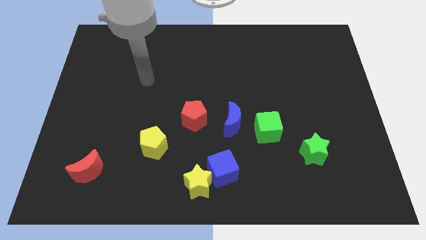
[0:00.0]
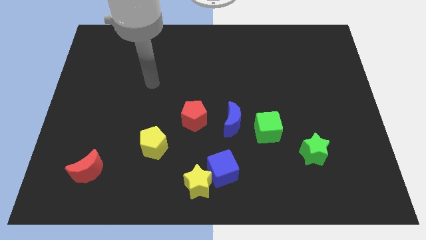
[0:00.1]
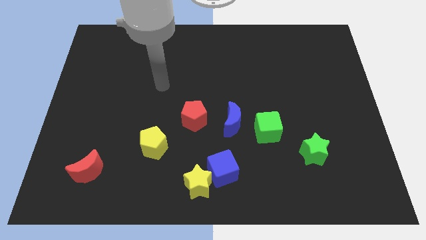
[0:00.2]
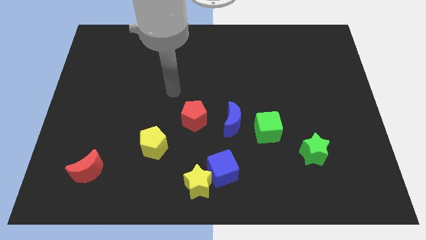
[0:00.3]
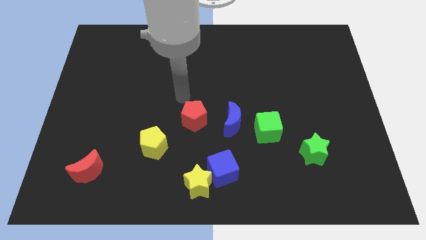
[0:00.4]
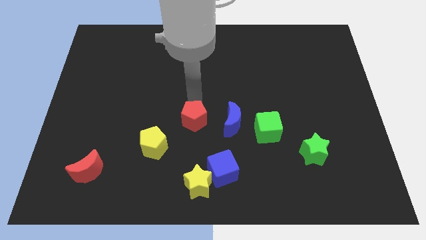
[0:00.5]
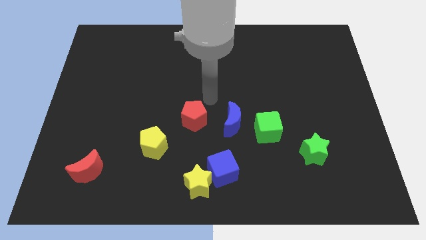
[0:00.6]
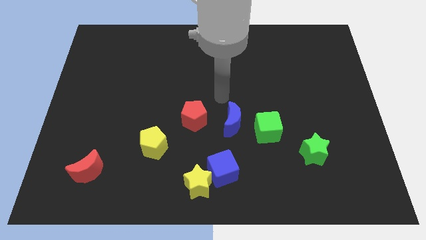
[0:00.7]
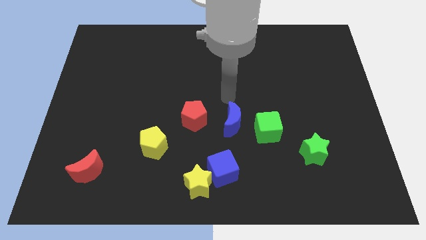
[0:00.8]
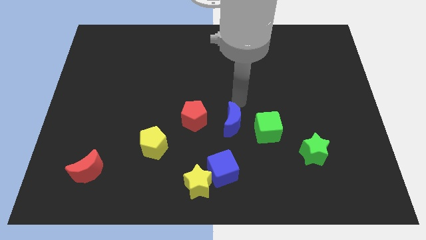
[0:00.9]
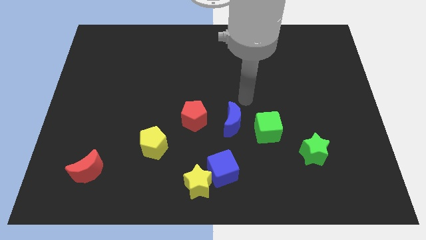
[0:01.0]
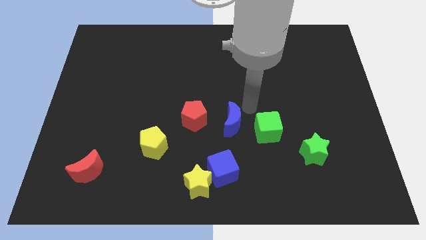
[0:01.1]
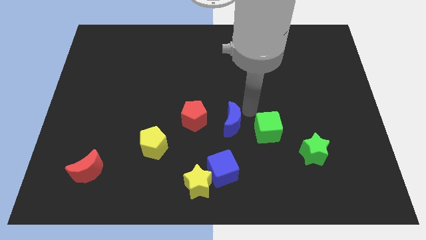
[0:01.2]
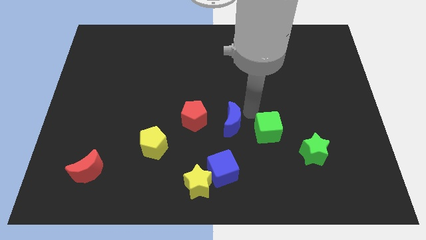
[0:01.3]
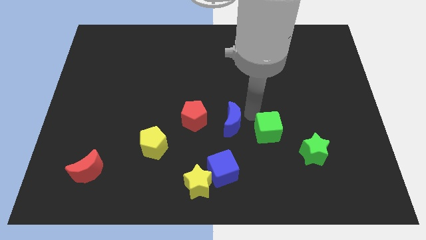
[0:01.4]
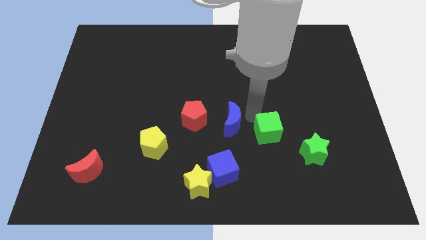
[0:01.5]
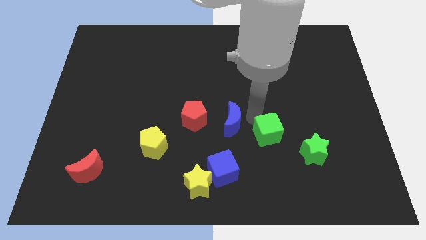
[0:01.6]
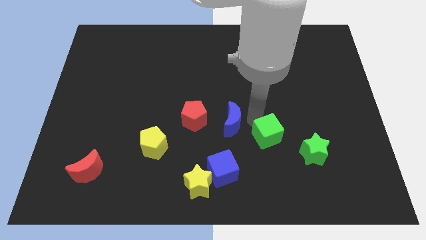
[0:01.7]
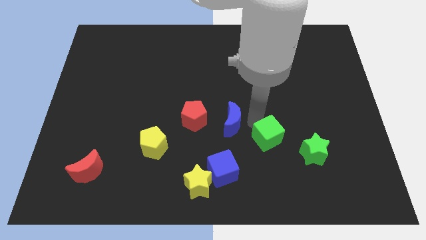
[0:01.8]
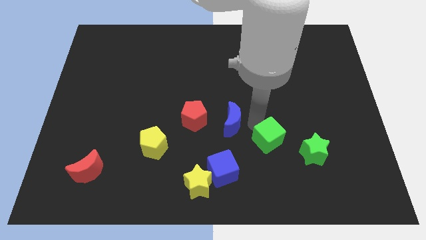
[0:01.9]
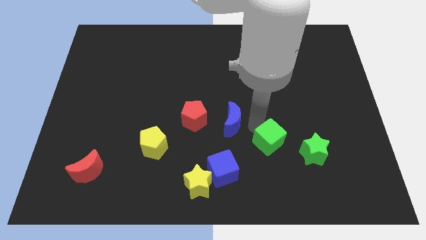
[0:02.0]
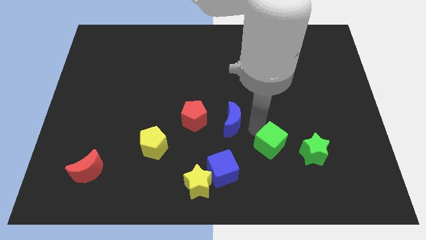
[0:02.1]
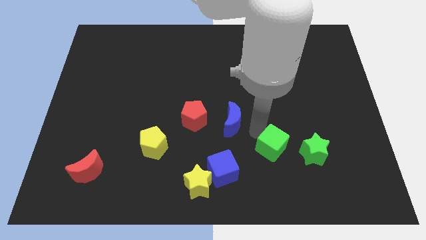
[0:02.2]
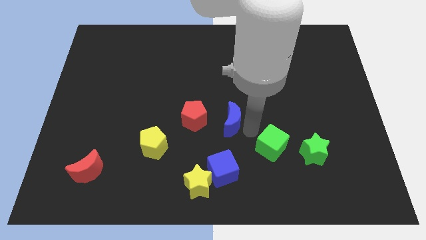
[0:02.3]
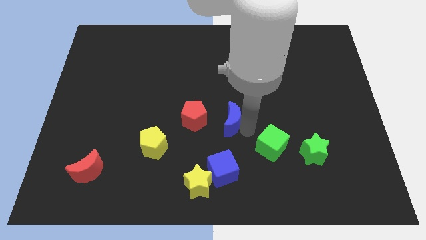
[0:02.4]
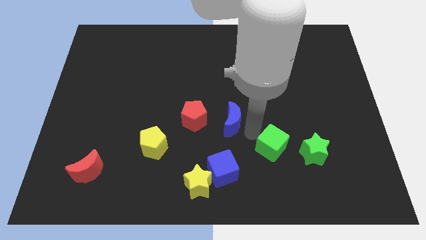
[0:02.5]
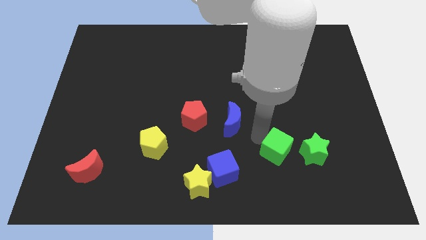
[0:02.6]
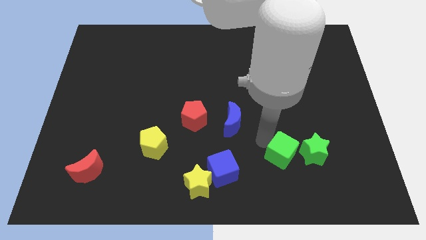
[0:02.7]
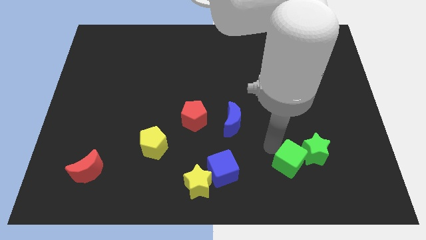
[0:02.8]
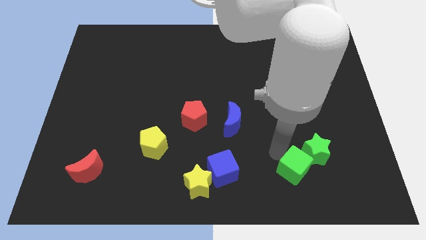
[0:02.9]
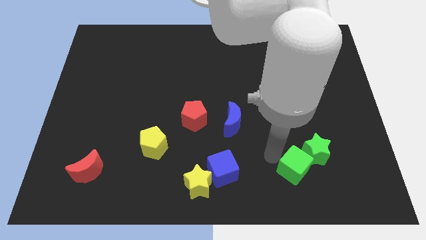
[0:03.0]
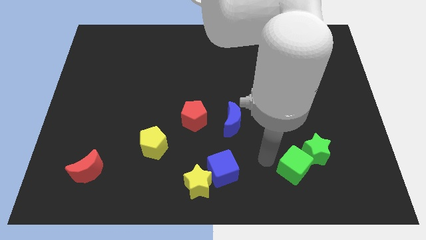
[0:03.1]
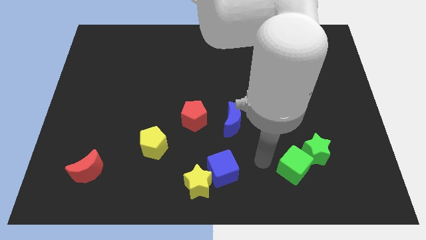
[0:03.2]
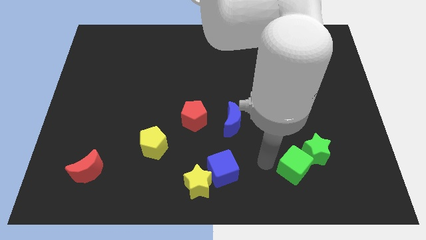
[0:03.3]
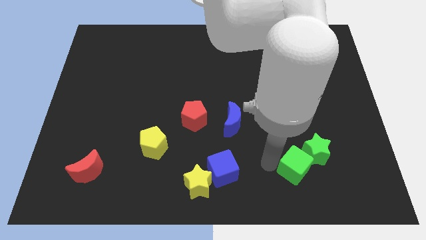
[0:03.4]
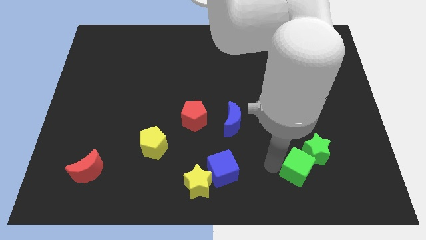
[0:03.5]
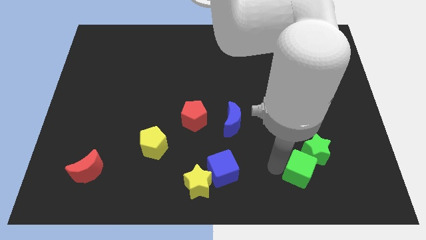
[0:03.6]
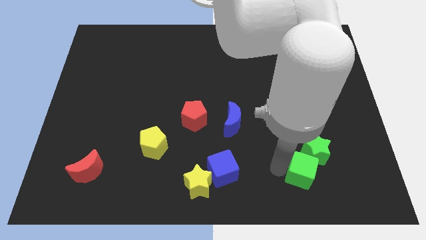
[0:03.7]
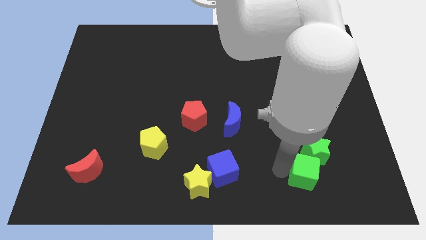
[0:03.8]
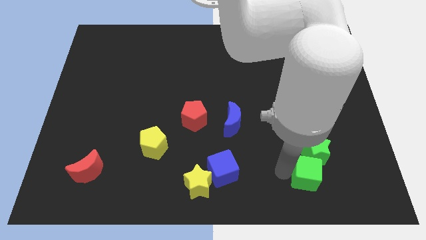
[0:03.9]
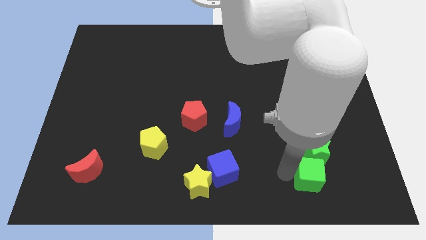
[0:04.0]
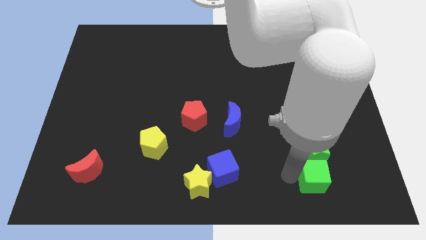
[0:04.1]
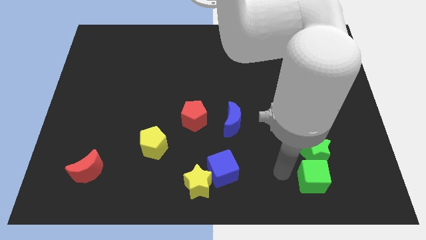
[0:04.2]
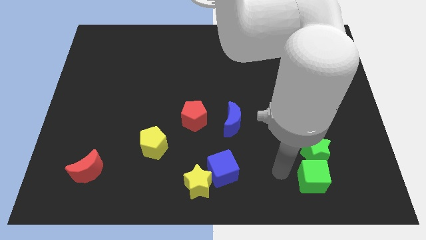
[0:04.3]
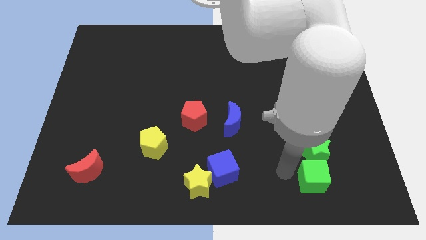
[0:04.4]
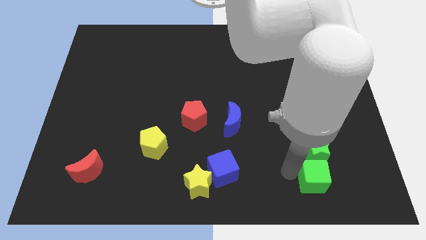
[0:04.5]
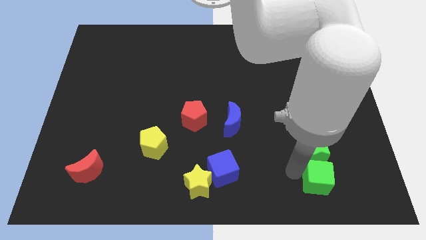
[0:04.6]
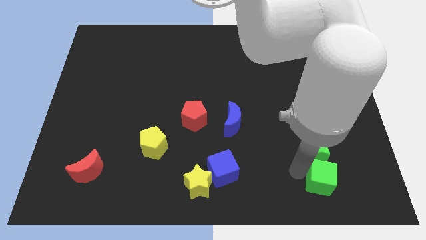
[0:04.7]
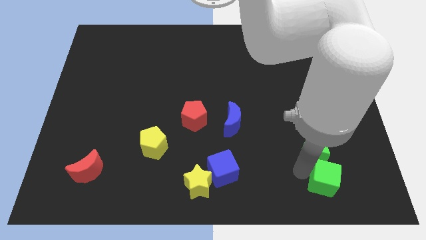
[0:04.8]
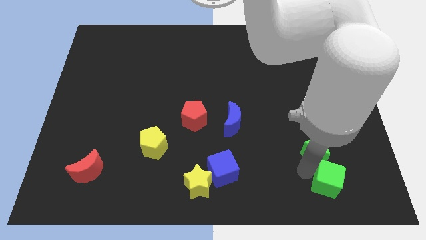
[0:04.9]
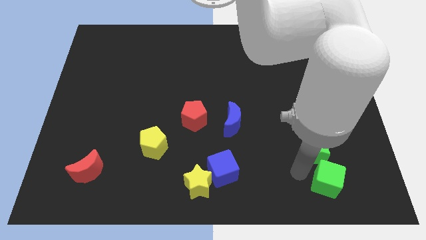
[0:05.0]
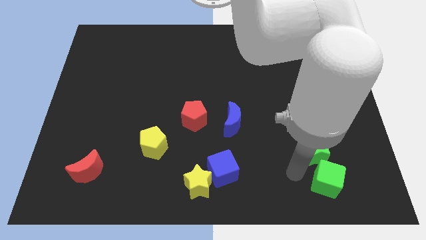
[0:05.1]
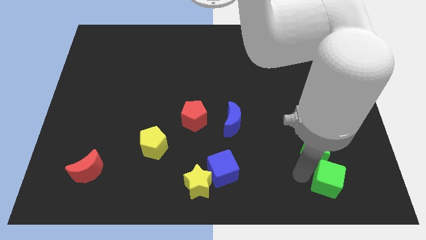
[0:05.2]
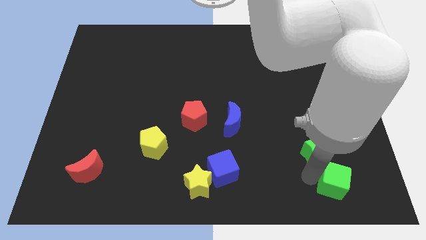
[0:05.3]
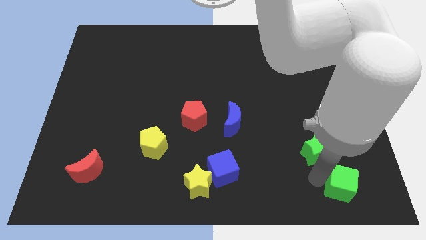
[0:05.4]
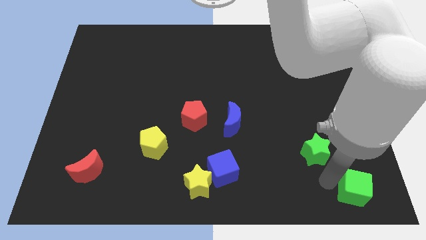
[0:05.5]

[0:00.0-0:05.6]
put the green cube to the bottom right
